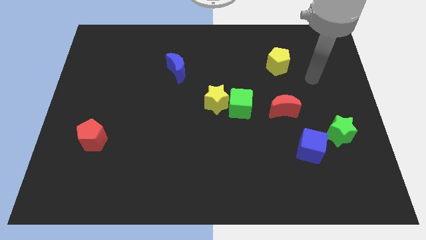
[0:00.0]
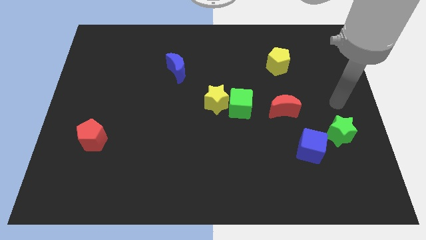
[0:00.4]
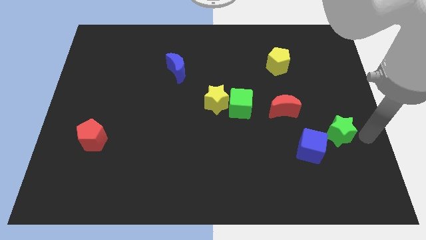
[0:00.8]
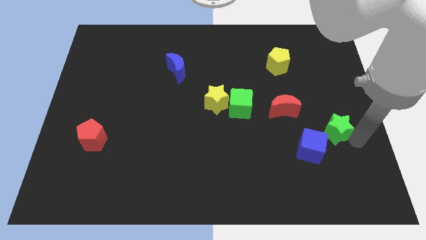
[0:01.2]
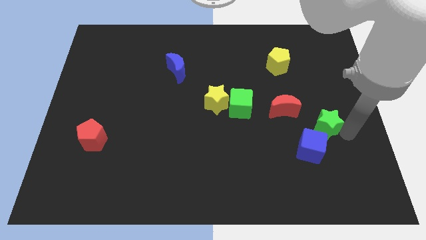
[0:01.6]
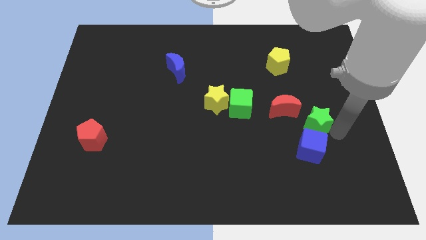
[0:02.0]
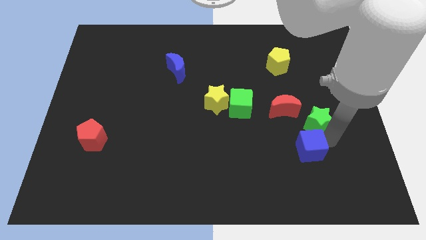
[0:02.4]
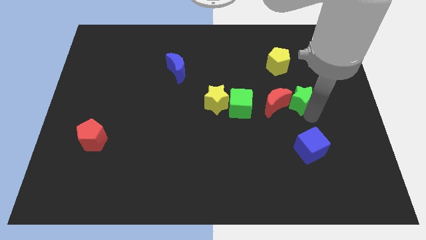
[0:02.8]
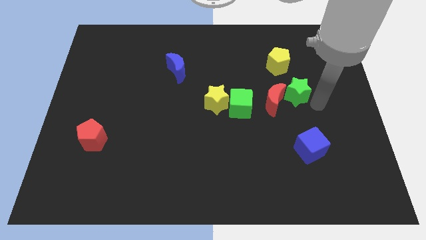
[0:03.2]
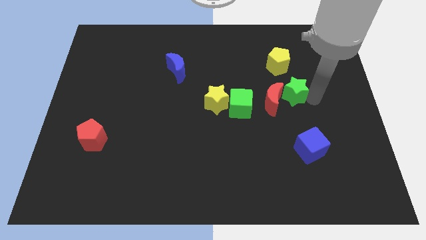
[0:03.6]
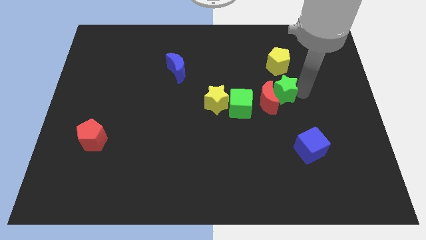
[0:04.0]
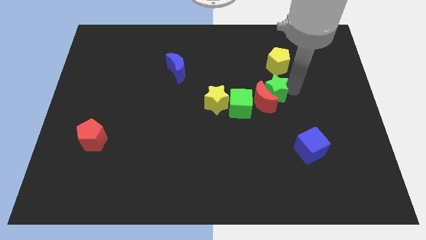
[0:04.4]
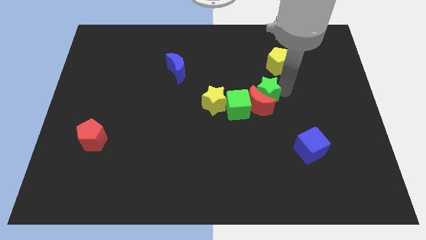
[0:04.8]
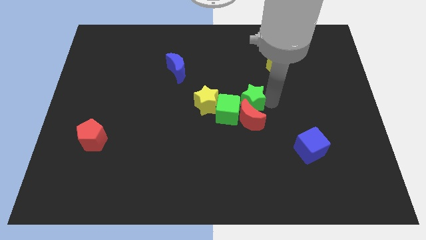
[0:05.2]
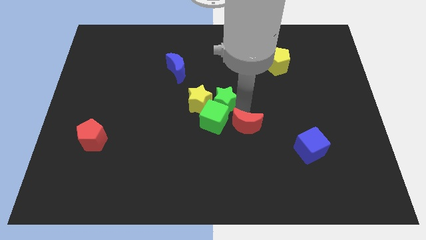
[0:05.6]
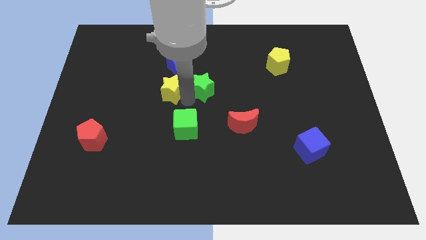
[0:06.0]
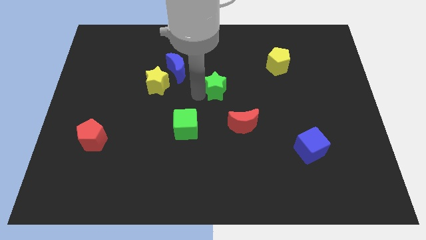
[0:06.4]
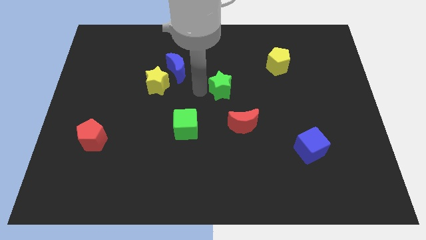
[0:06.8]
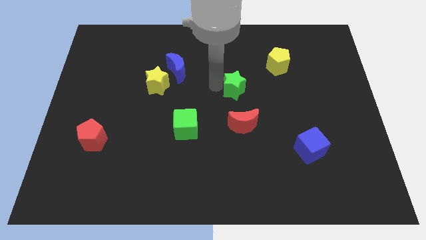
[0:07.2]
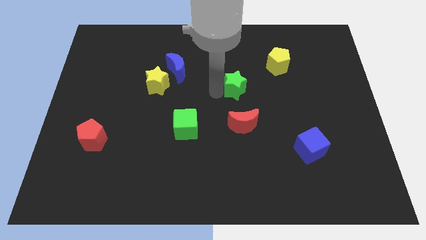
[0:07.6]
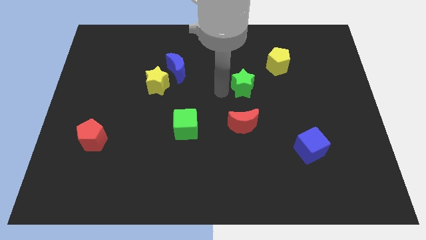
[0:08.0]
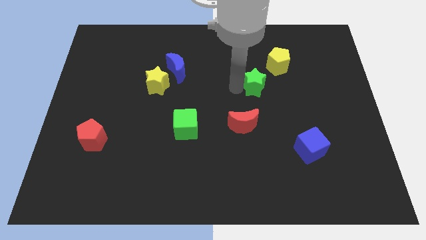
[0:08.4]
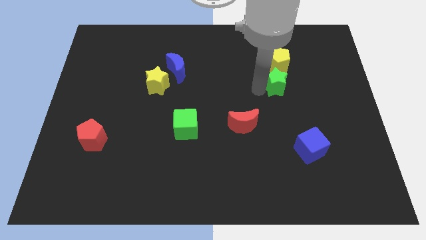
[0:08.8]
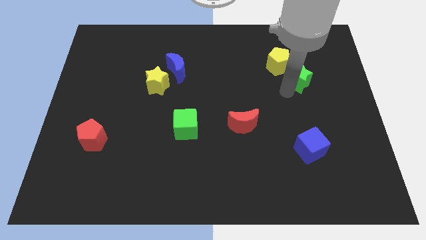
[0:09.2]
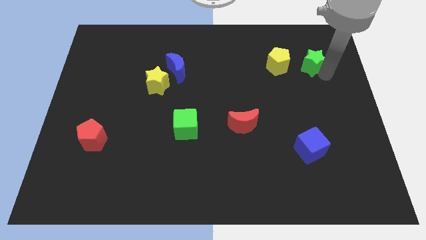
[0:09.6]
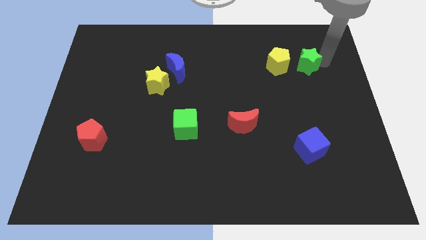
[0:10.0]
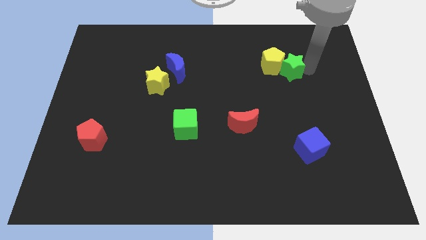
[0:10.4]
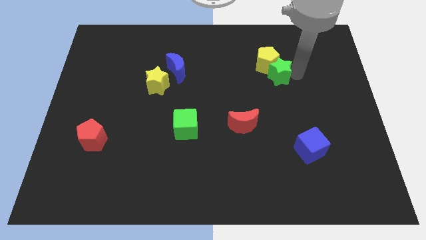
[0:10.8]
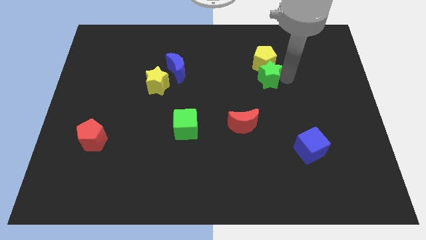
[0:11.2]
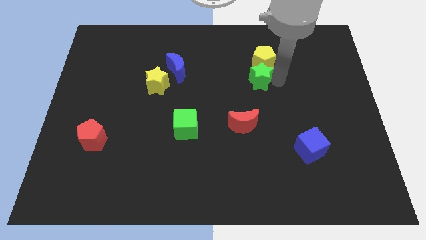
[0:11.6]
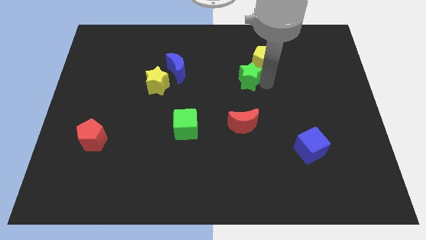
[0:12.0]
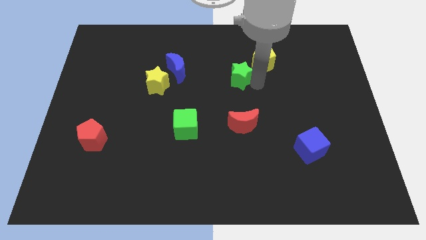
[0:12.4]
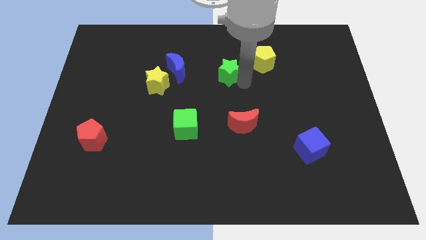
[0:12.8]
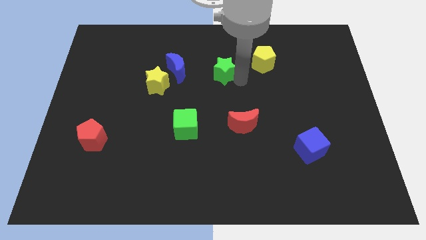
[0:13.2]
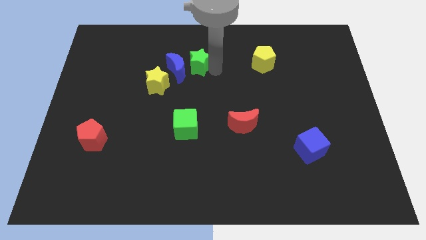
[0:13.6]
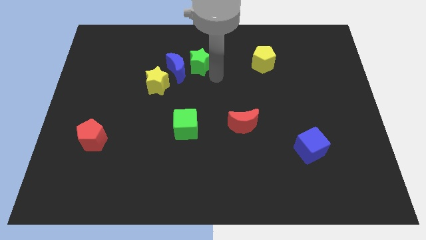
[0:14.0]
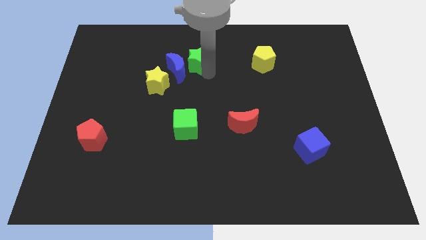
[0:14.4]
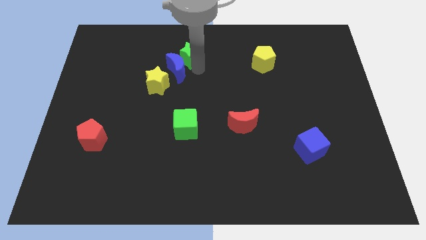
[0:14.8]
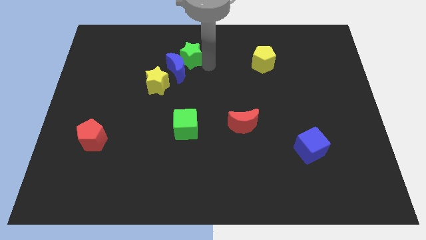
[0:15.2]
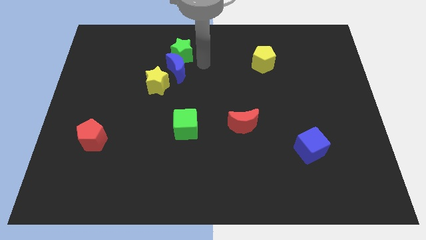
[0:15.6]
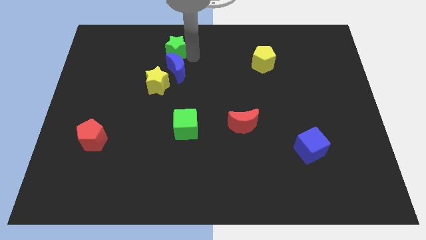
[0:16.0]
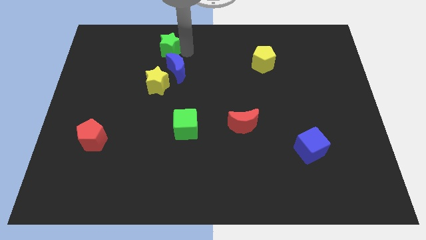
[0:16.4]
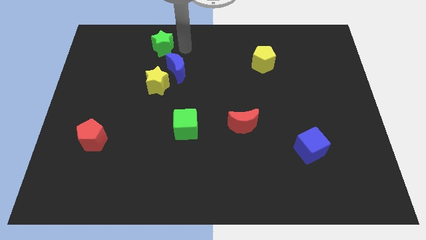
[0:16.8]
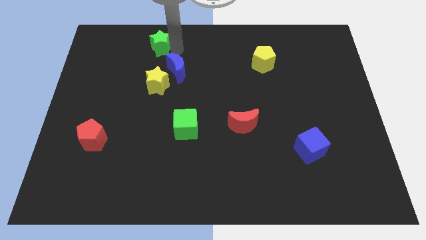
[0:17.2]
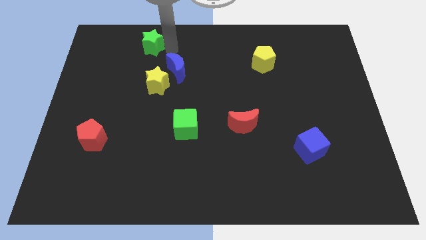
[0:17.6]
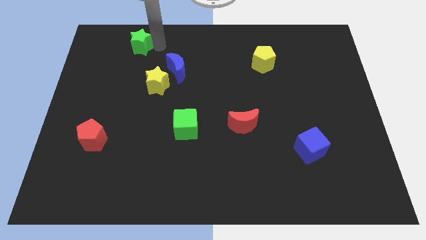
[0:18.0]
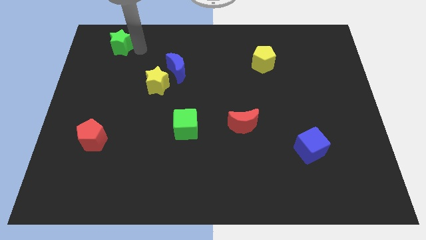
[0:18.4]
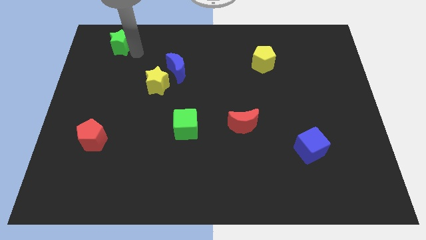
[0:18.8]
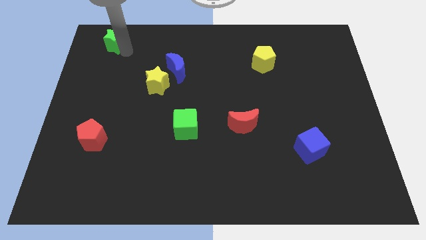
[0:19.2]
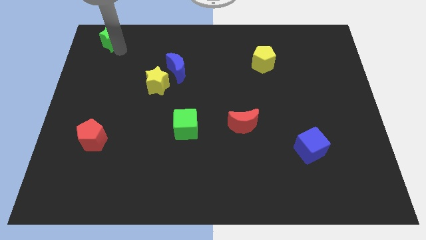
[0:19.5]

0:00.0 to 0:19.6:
push the green star to the upper left corner

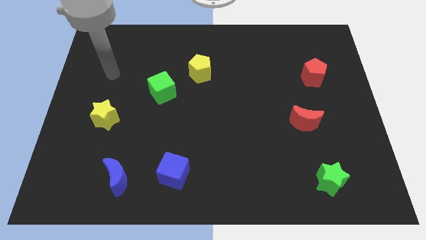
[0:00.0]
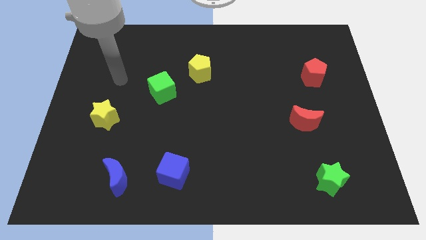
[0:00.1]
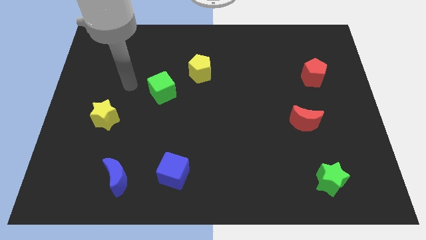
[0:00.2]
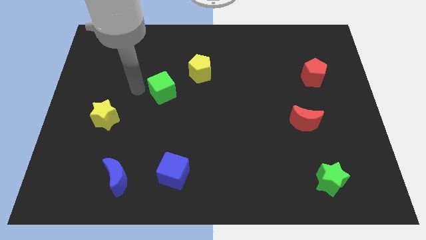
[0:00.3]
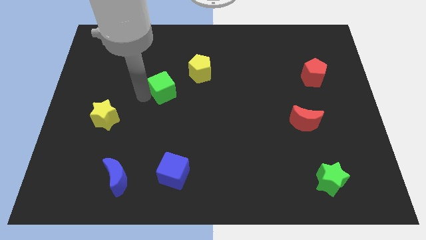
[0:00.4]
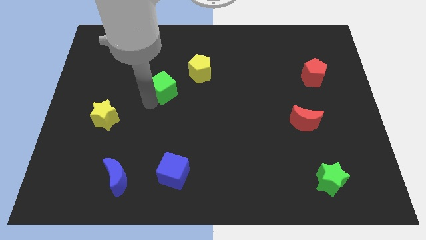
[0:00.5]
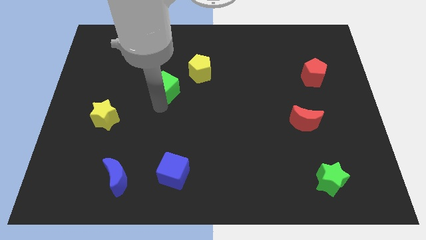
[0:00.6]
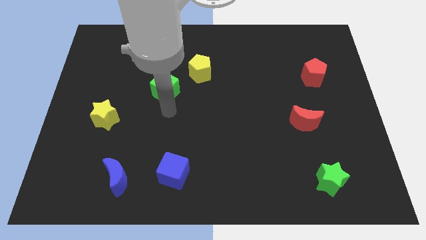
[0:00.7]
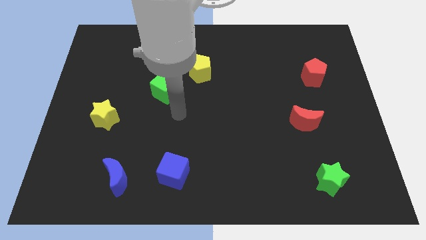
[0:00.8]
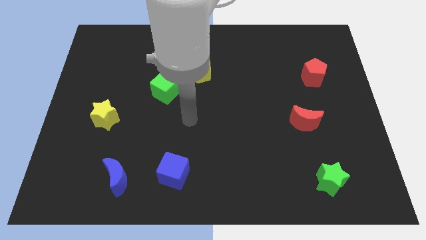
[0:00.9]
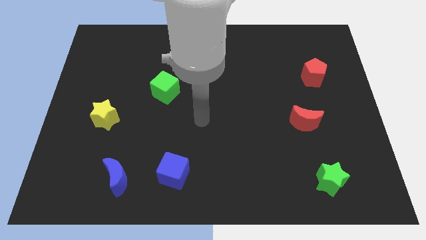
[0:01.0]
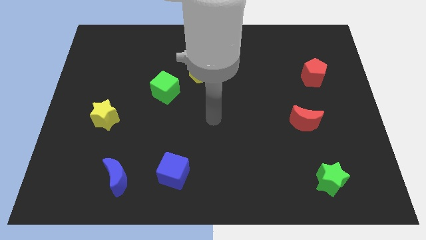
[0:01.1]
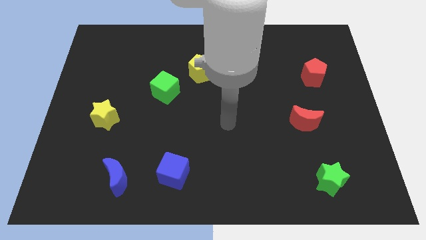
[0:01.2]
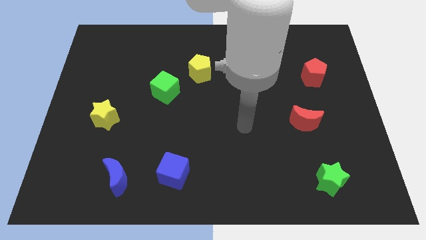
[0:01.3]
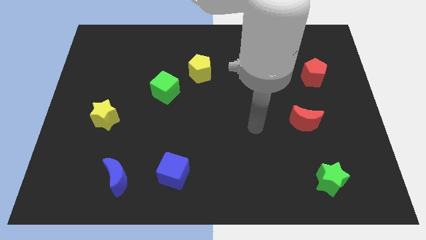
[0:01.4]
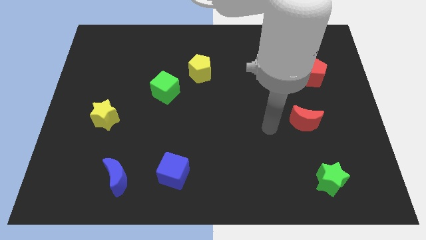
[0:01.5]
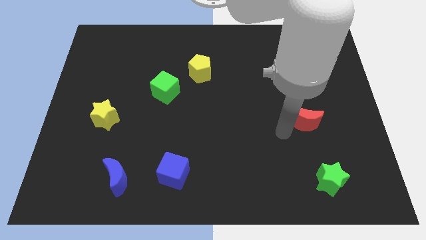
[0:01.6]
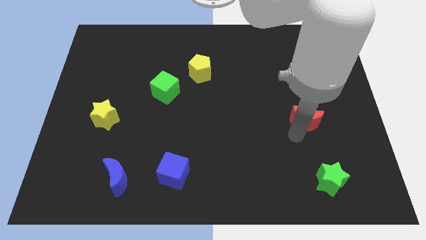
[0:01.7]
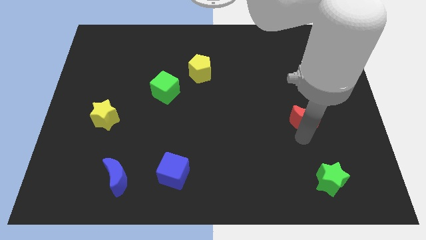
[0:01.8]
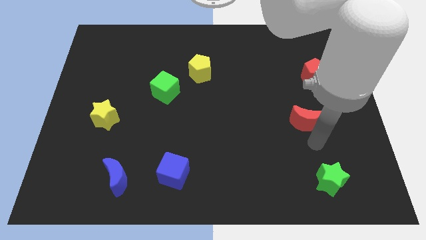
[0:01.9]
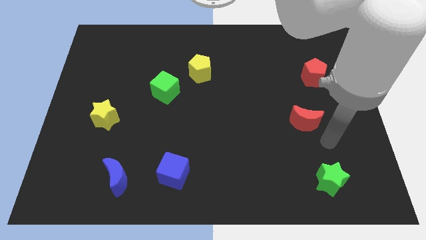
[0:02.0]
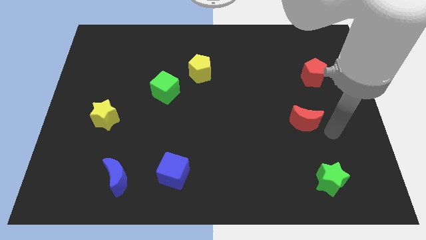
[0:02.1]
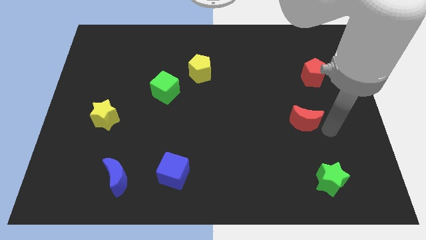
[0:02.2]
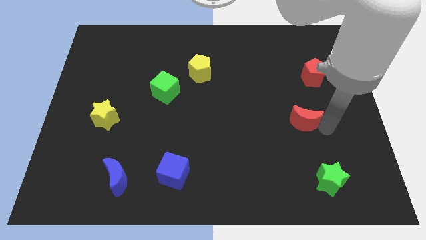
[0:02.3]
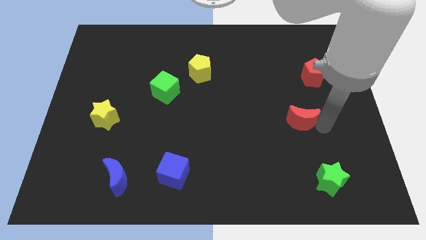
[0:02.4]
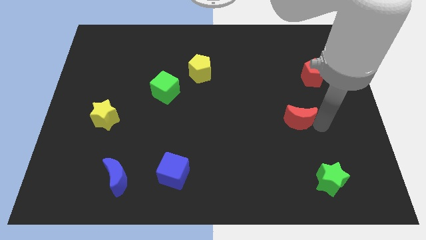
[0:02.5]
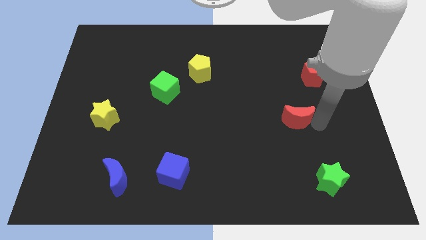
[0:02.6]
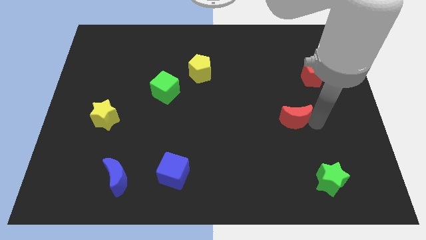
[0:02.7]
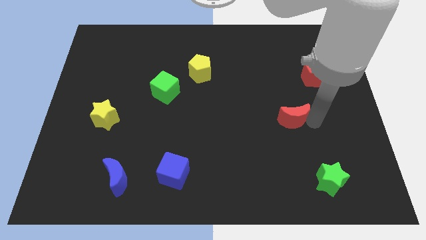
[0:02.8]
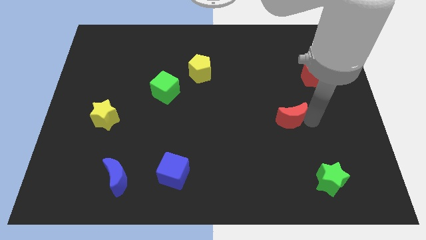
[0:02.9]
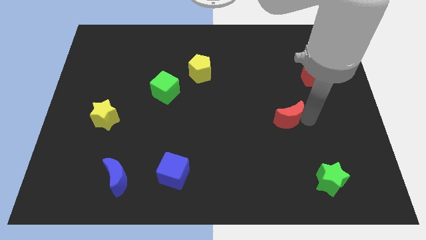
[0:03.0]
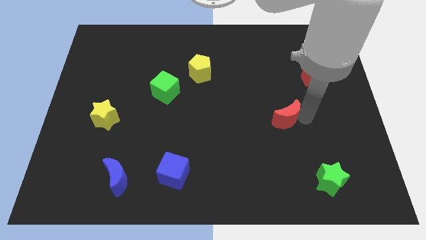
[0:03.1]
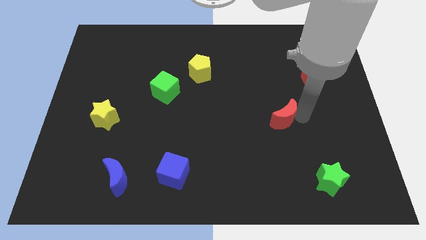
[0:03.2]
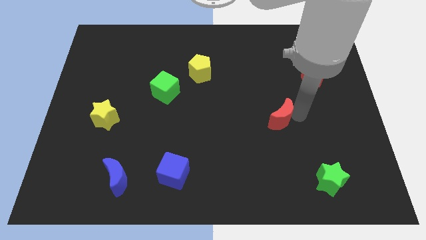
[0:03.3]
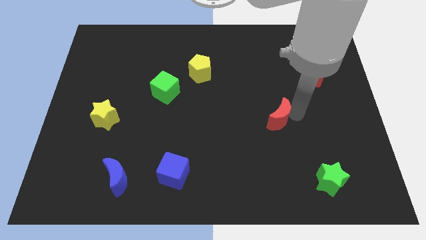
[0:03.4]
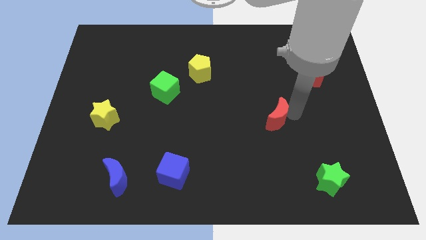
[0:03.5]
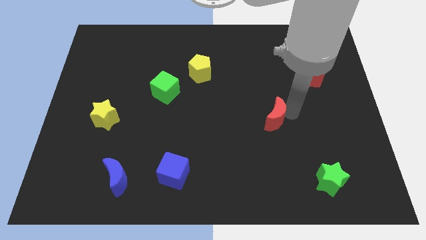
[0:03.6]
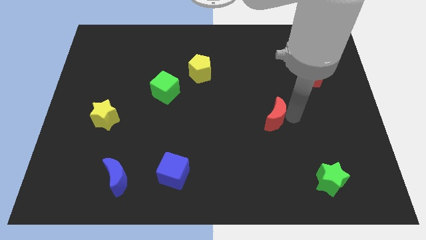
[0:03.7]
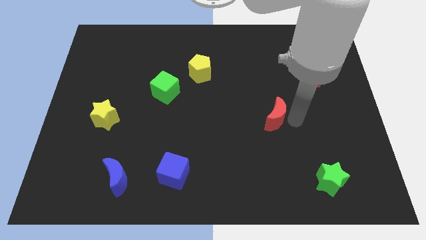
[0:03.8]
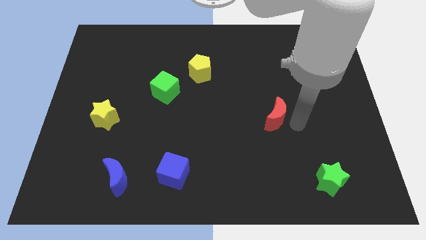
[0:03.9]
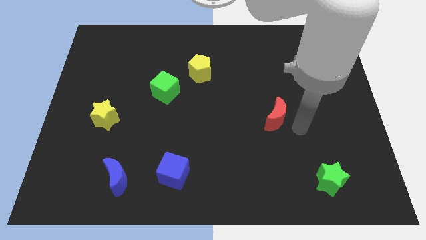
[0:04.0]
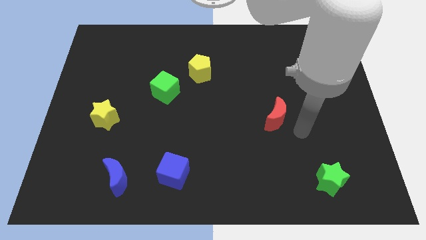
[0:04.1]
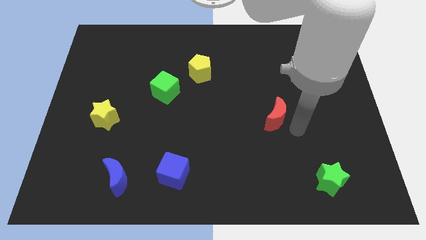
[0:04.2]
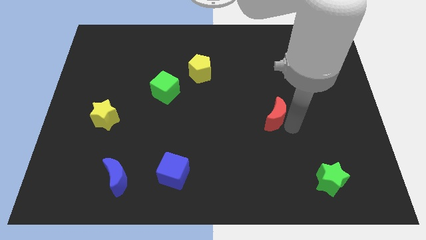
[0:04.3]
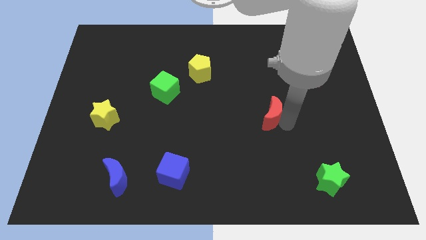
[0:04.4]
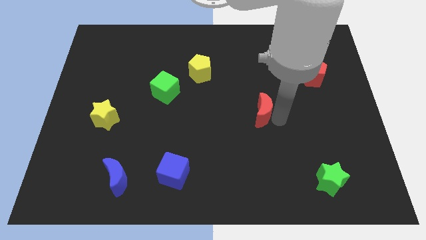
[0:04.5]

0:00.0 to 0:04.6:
put the red moon to the middle
